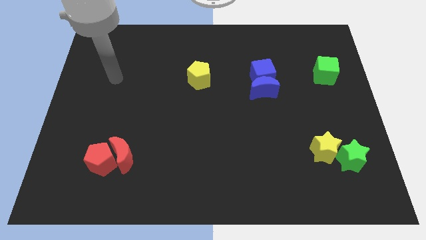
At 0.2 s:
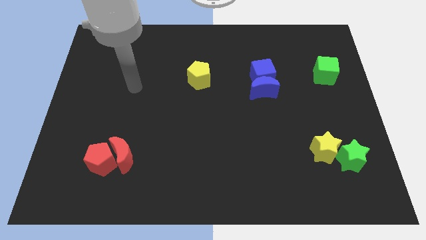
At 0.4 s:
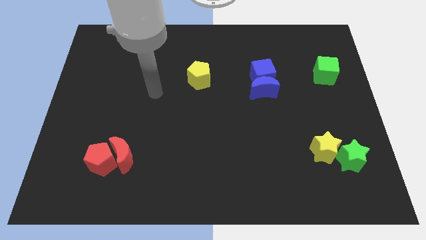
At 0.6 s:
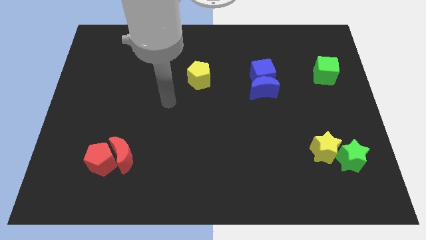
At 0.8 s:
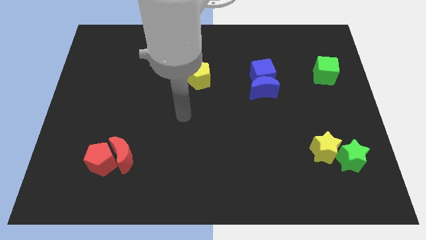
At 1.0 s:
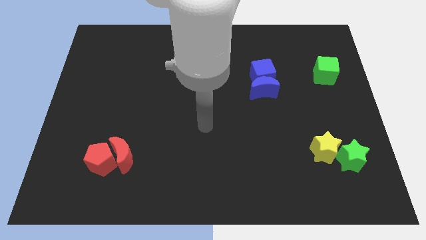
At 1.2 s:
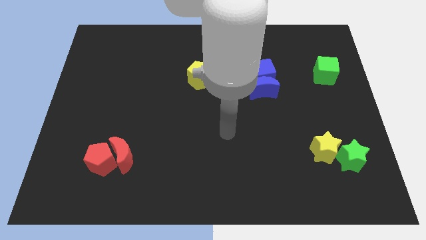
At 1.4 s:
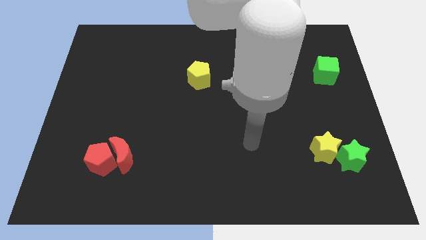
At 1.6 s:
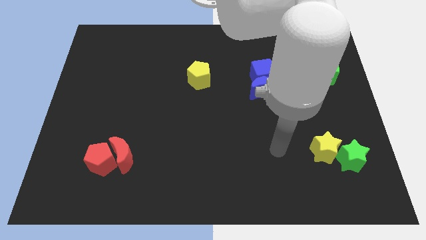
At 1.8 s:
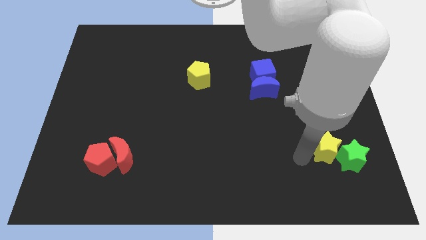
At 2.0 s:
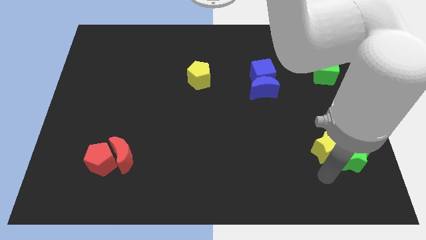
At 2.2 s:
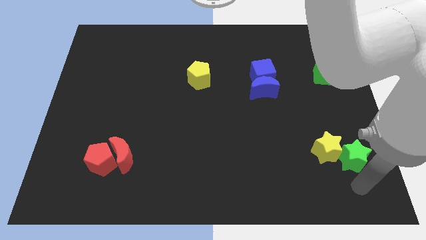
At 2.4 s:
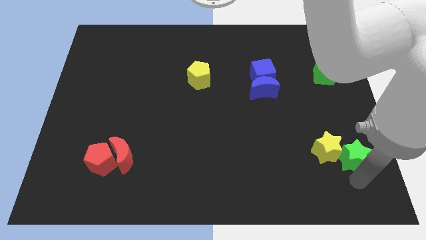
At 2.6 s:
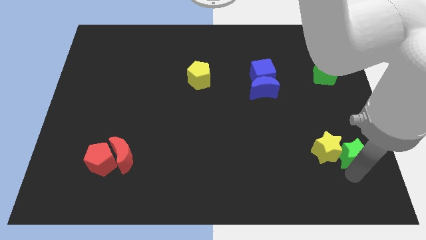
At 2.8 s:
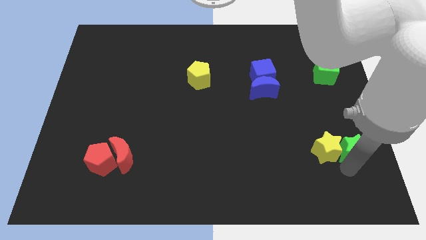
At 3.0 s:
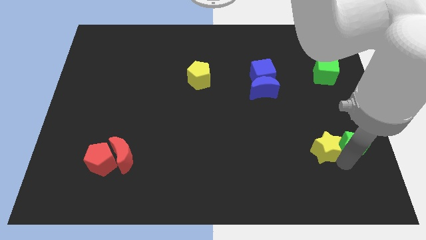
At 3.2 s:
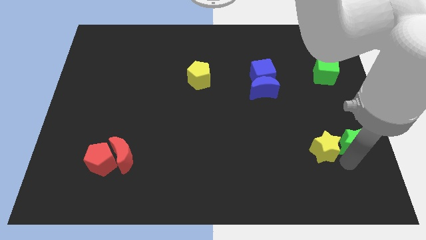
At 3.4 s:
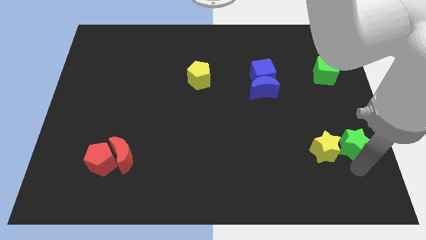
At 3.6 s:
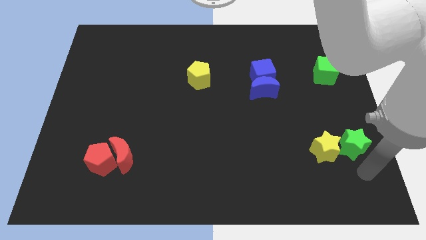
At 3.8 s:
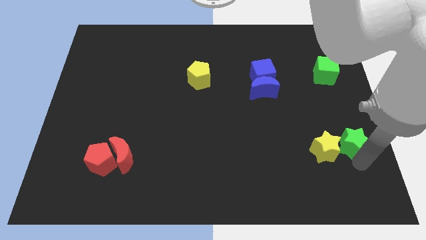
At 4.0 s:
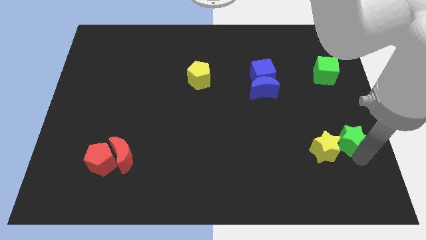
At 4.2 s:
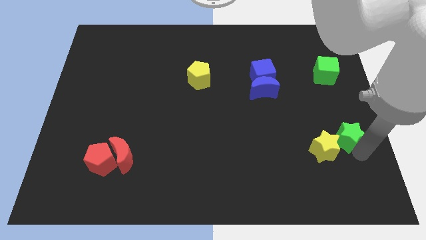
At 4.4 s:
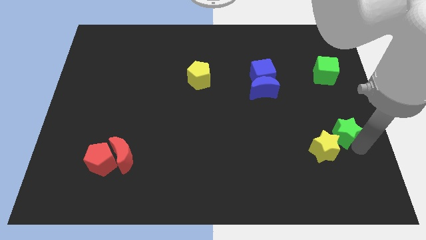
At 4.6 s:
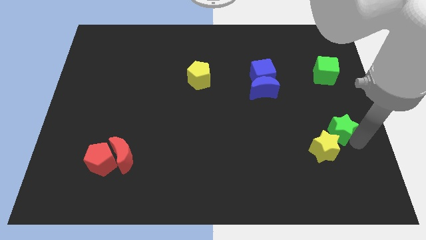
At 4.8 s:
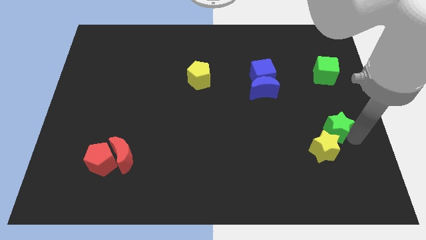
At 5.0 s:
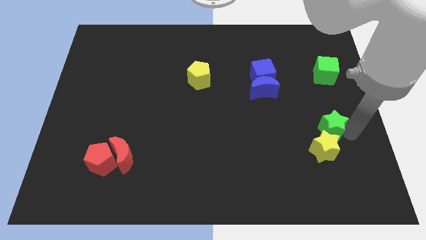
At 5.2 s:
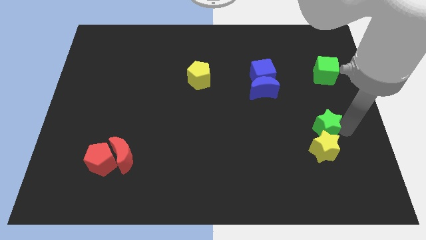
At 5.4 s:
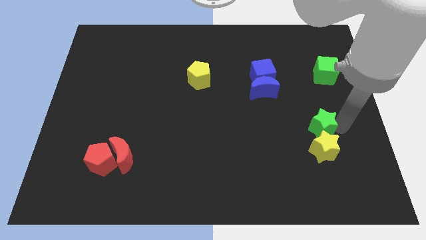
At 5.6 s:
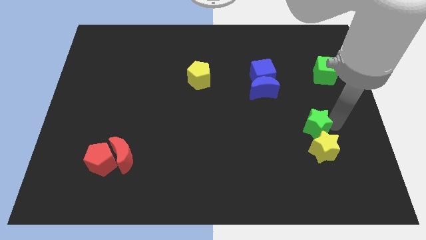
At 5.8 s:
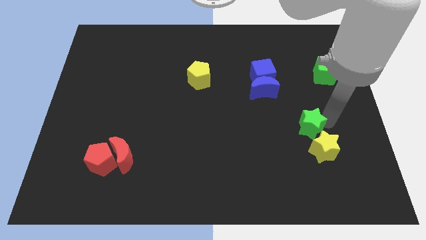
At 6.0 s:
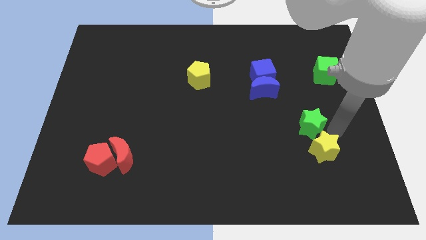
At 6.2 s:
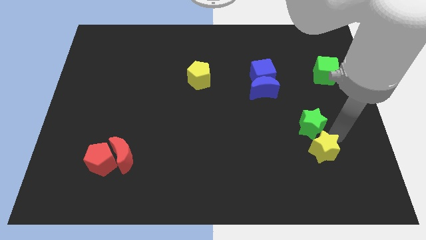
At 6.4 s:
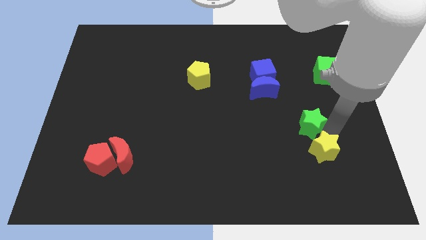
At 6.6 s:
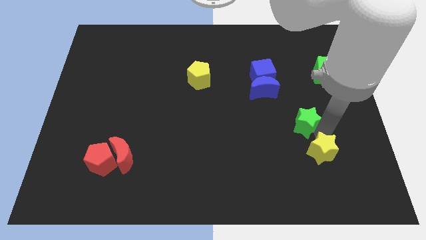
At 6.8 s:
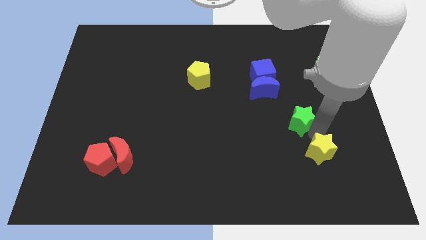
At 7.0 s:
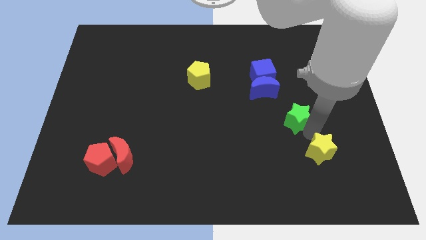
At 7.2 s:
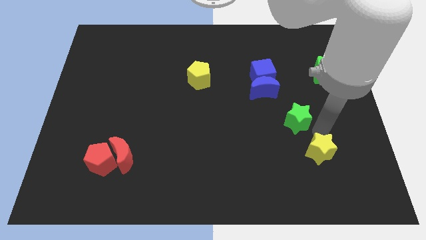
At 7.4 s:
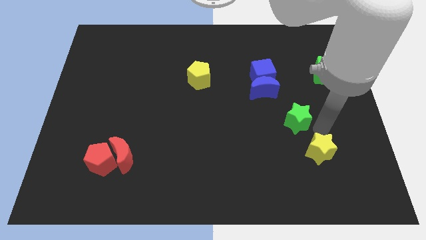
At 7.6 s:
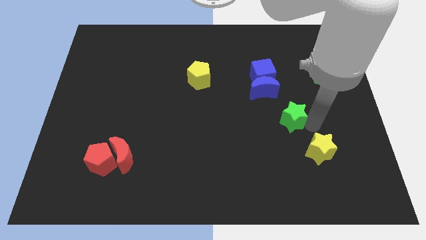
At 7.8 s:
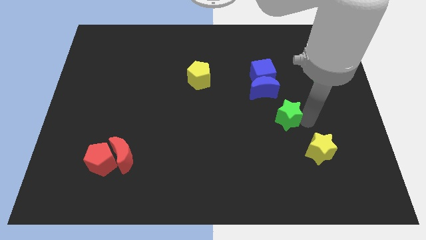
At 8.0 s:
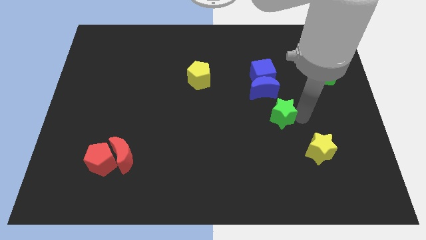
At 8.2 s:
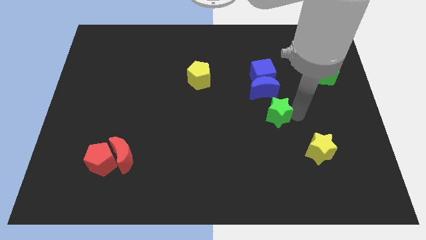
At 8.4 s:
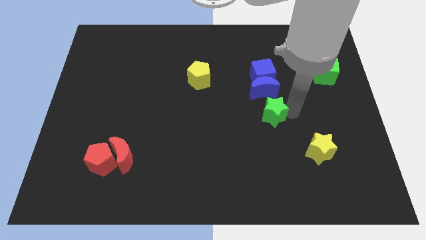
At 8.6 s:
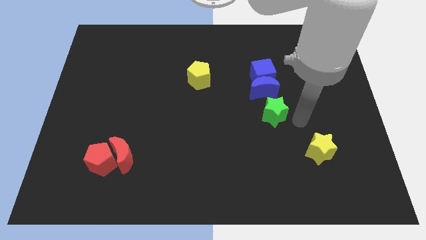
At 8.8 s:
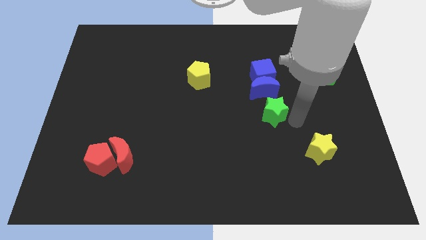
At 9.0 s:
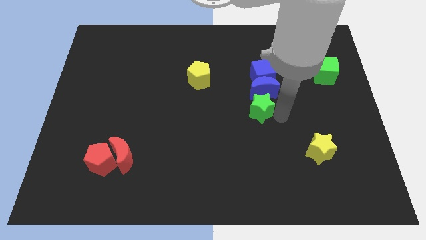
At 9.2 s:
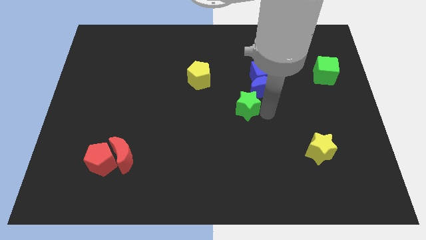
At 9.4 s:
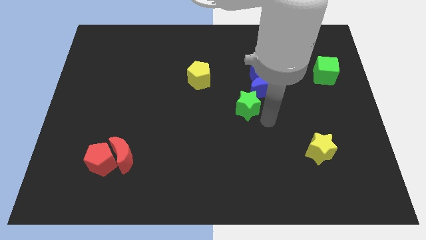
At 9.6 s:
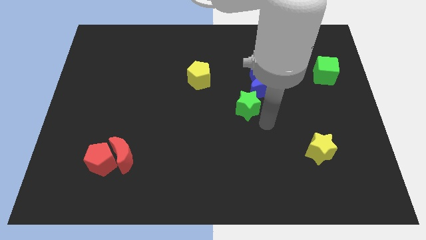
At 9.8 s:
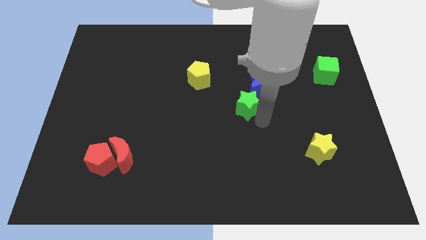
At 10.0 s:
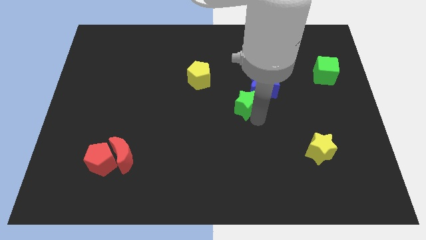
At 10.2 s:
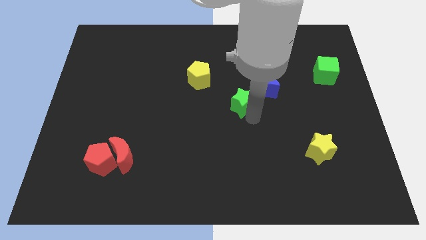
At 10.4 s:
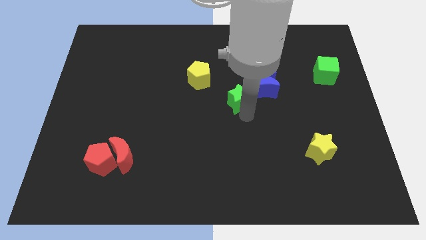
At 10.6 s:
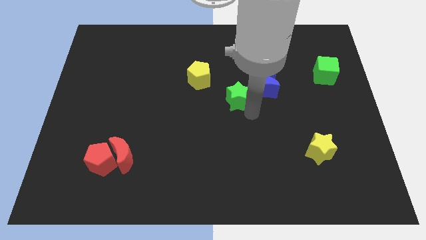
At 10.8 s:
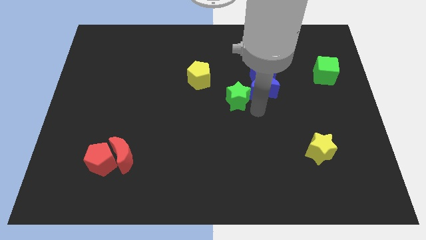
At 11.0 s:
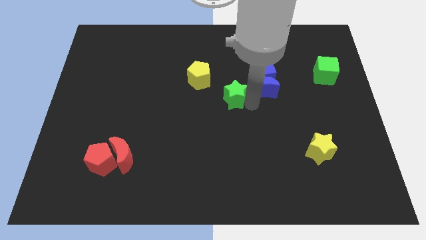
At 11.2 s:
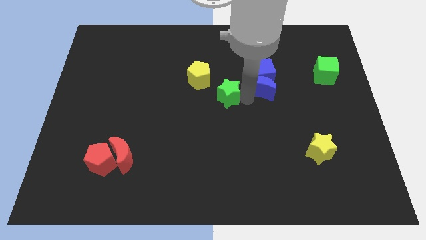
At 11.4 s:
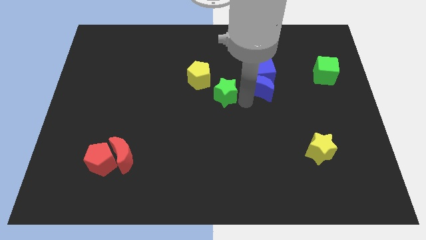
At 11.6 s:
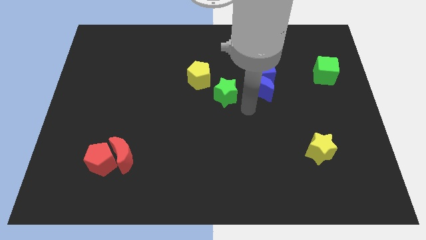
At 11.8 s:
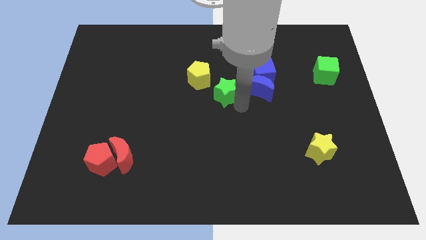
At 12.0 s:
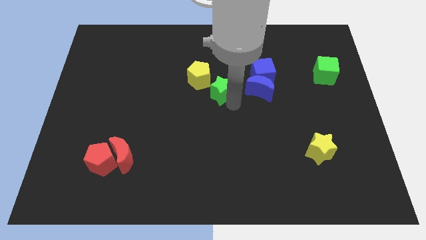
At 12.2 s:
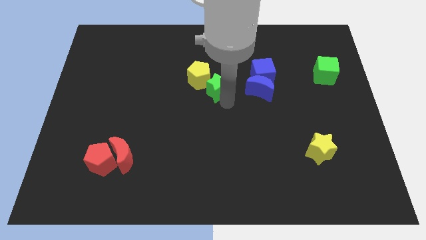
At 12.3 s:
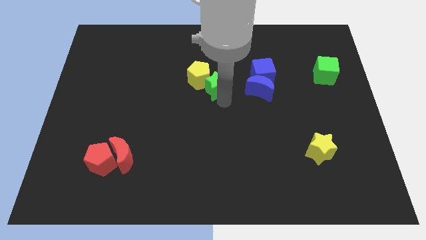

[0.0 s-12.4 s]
put the green star next to the yellow pentagon

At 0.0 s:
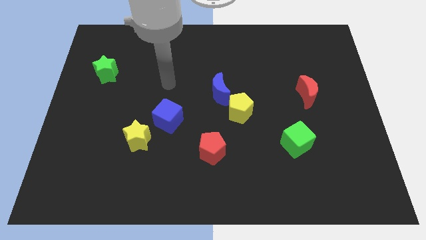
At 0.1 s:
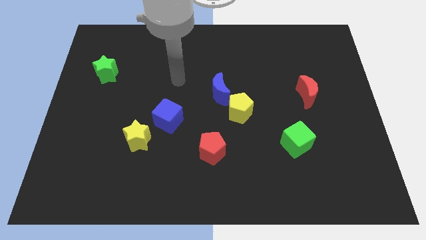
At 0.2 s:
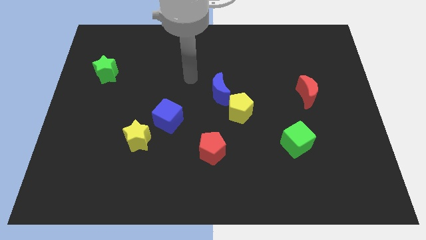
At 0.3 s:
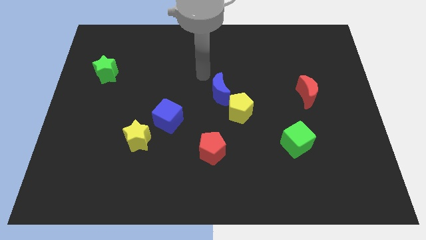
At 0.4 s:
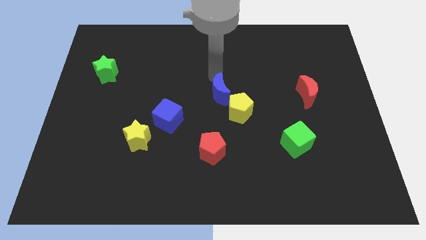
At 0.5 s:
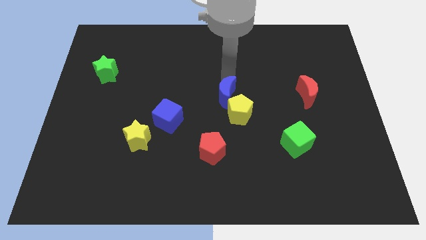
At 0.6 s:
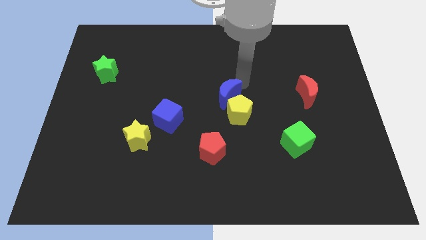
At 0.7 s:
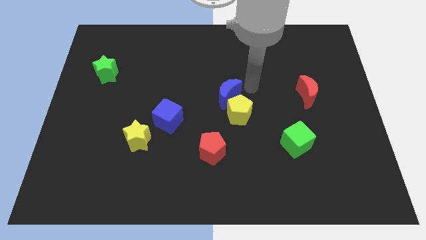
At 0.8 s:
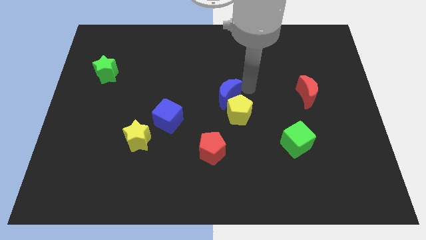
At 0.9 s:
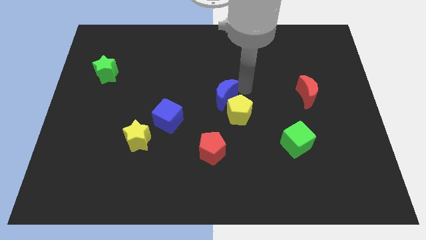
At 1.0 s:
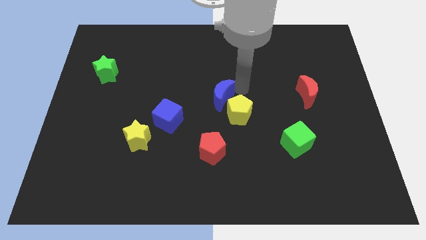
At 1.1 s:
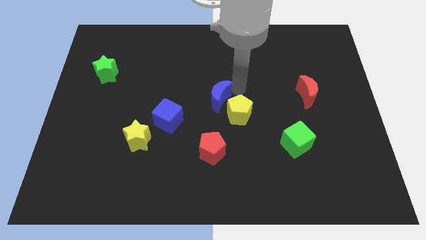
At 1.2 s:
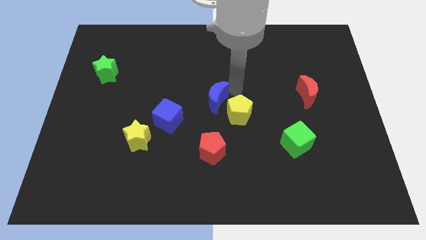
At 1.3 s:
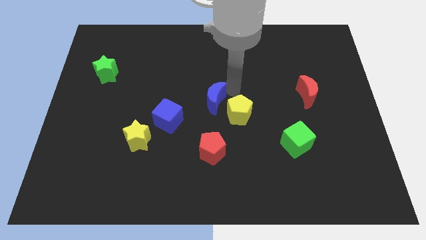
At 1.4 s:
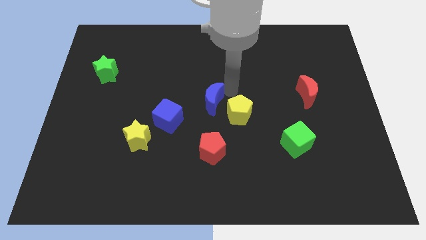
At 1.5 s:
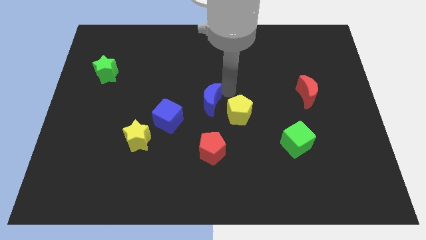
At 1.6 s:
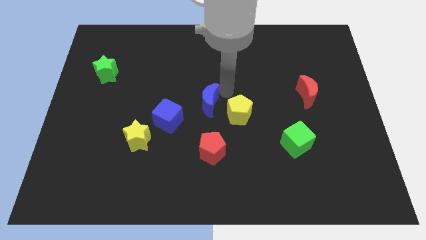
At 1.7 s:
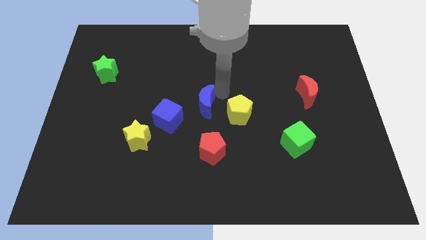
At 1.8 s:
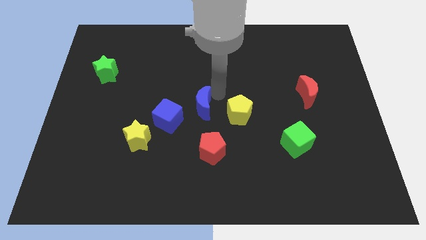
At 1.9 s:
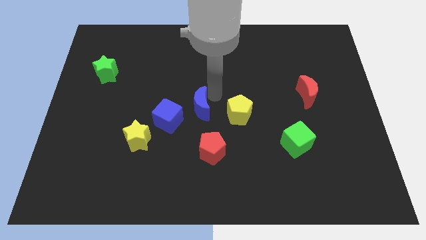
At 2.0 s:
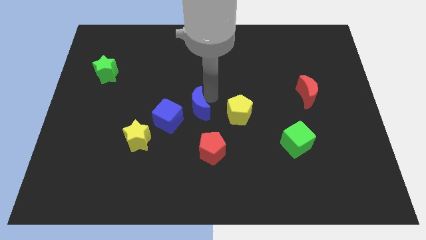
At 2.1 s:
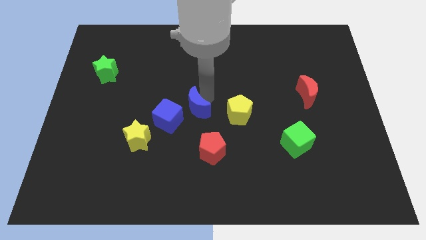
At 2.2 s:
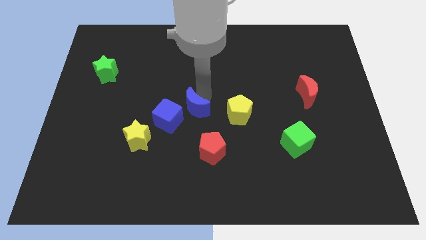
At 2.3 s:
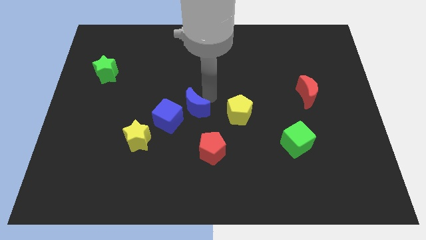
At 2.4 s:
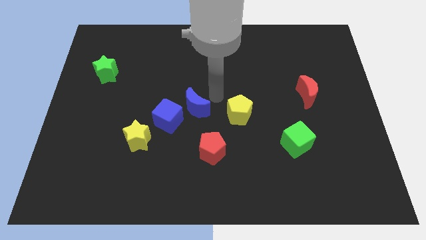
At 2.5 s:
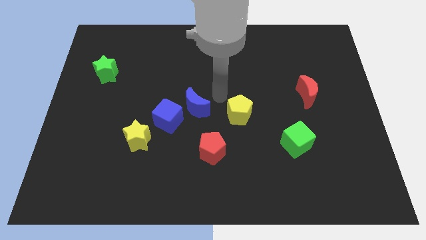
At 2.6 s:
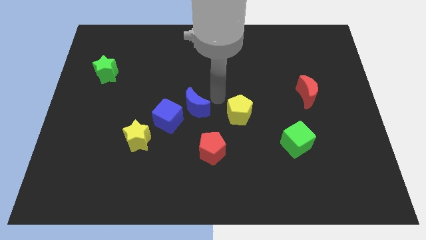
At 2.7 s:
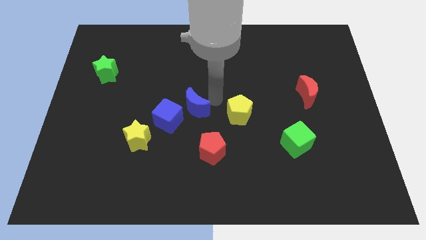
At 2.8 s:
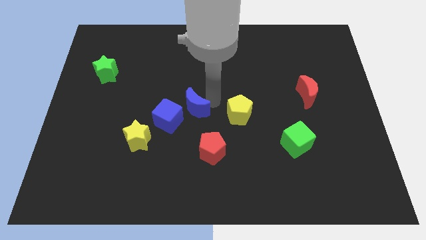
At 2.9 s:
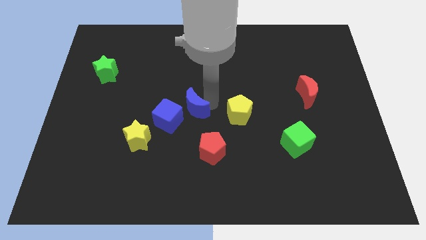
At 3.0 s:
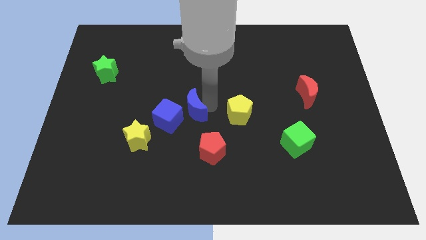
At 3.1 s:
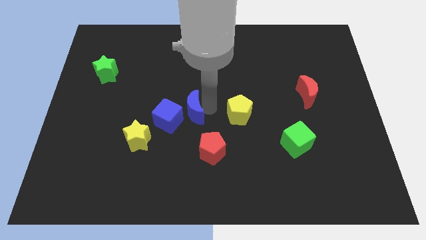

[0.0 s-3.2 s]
push the blue moon towards the blue cube
